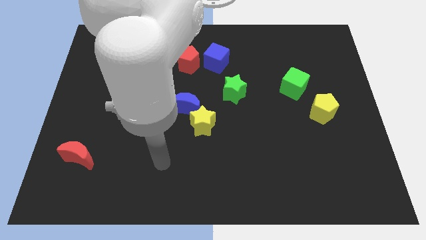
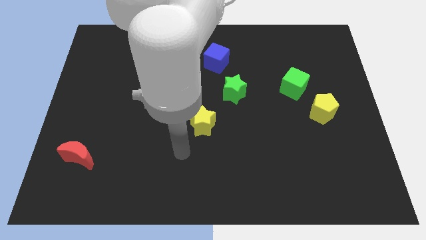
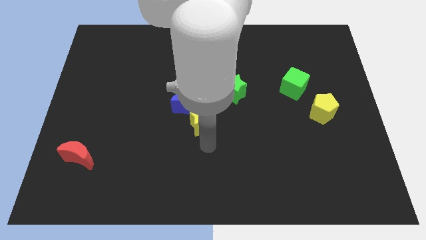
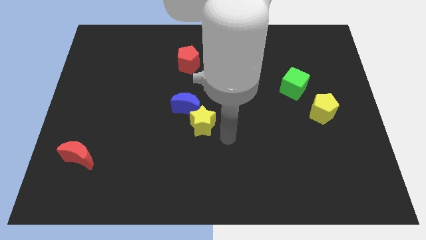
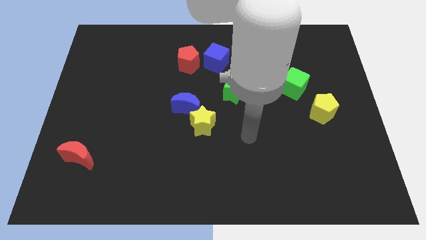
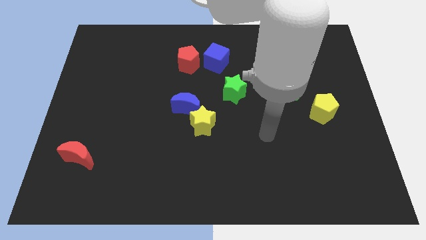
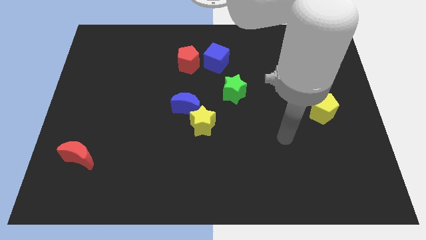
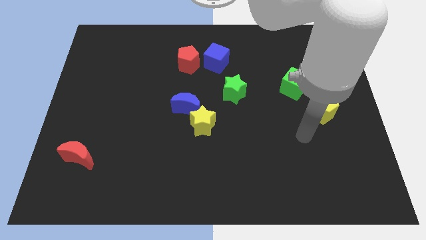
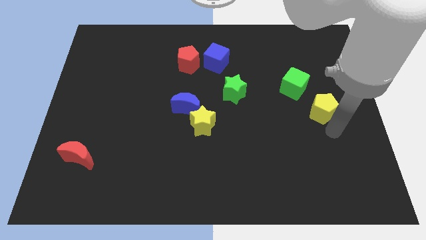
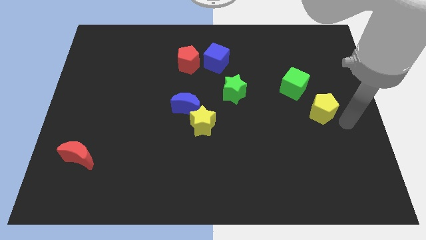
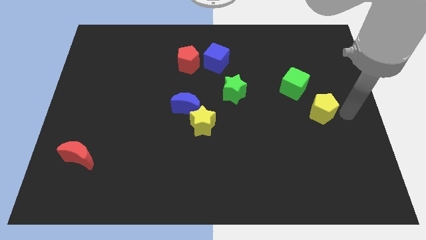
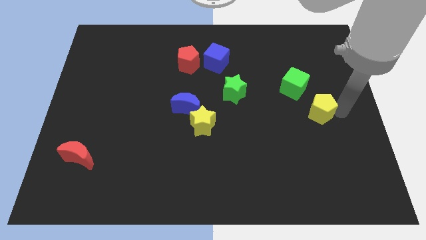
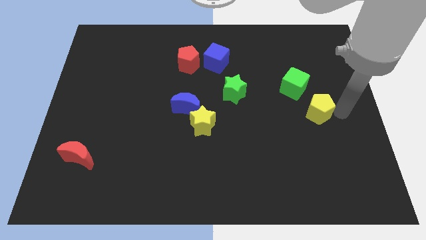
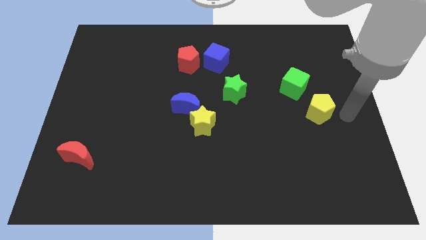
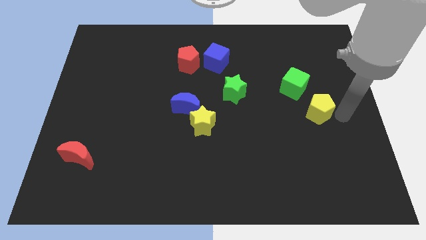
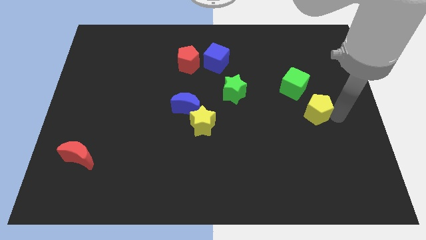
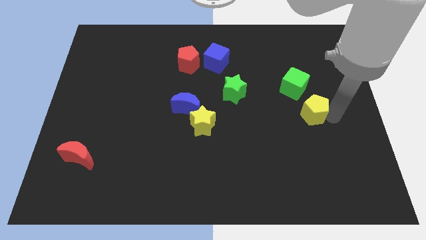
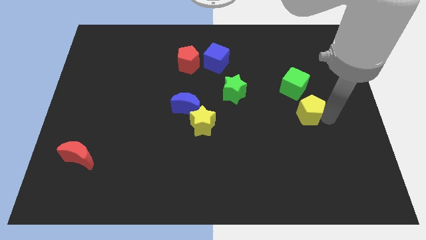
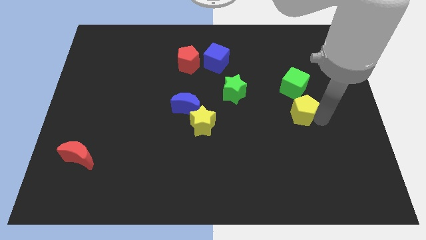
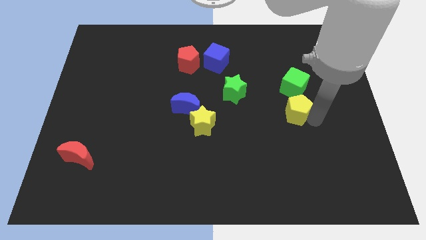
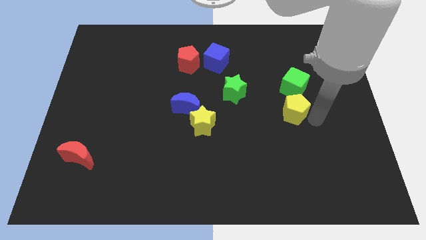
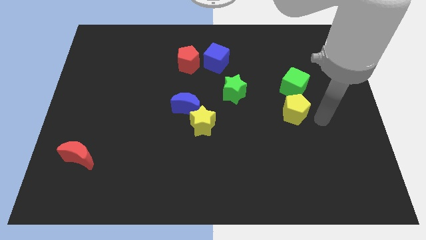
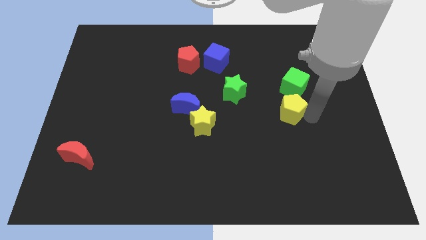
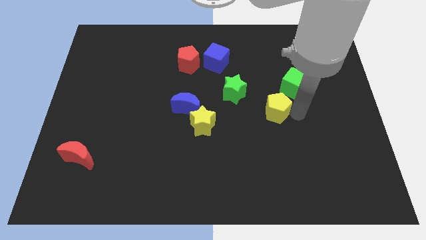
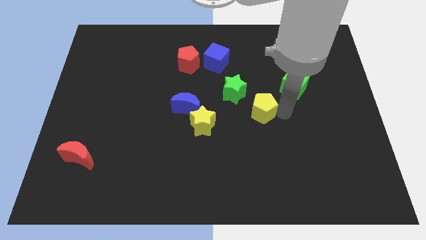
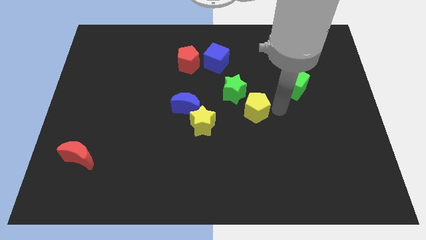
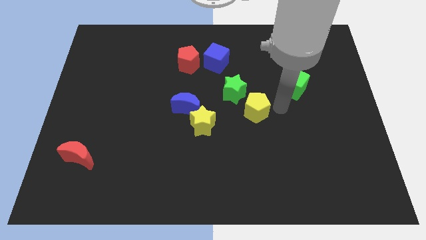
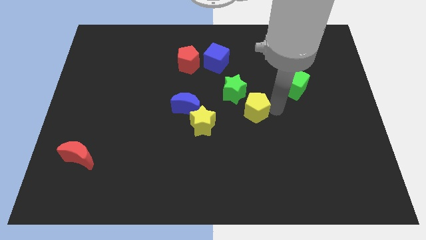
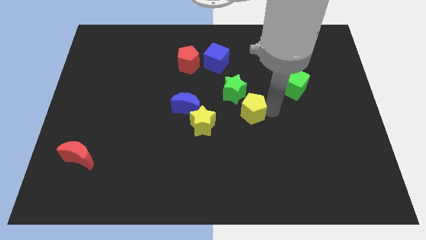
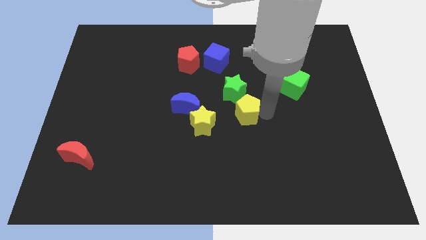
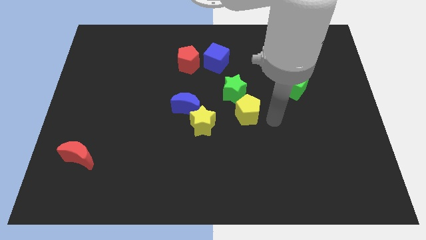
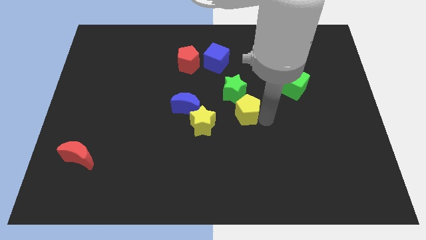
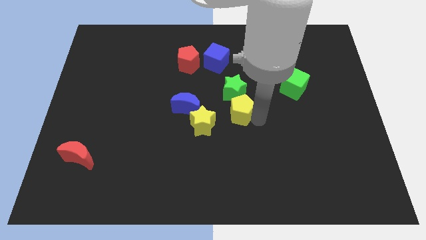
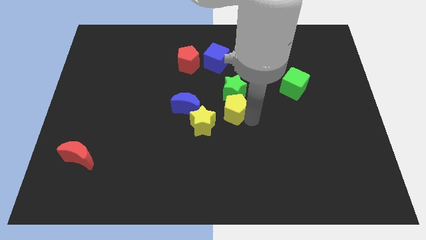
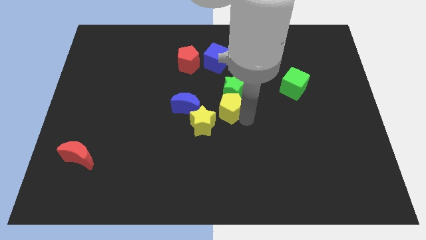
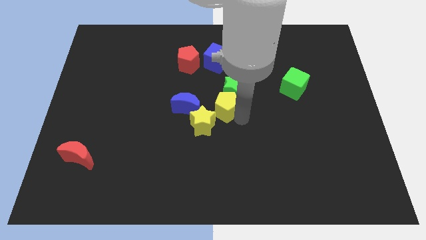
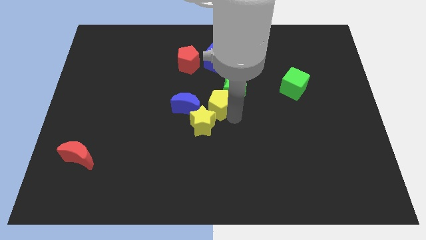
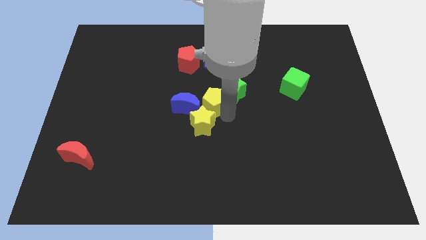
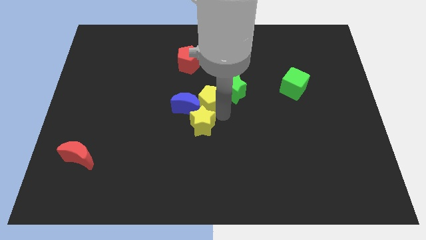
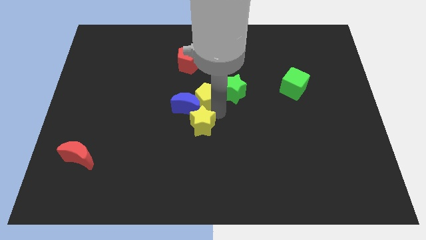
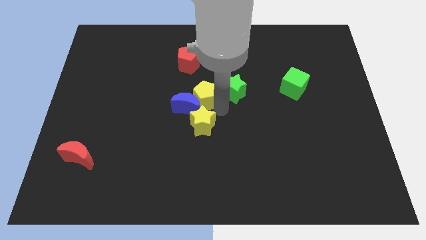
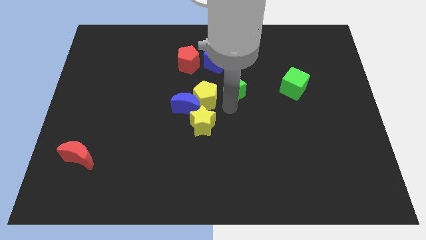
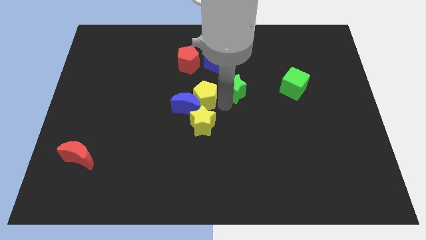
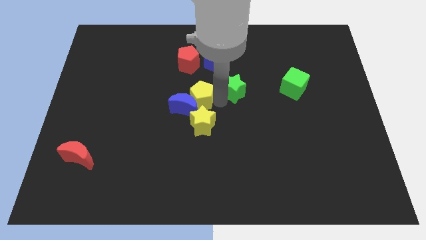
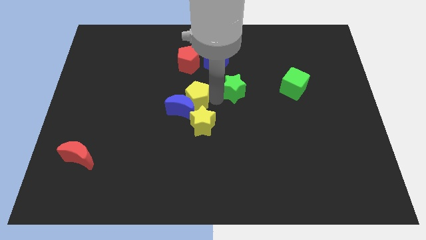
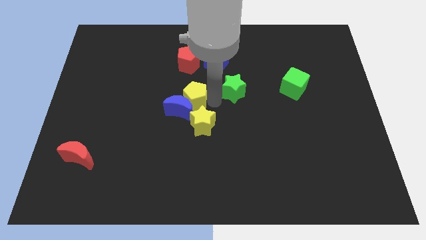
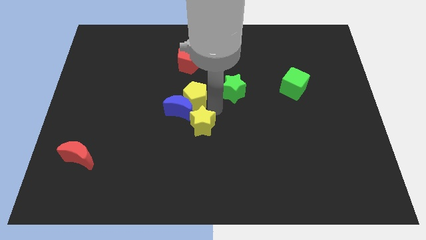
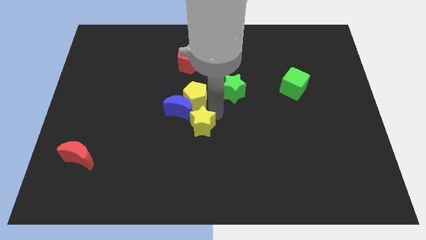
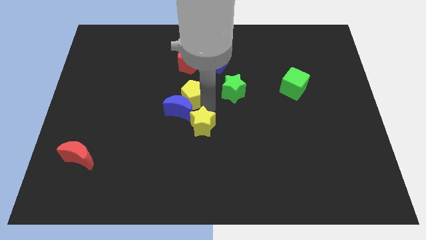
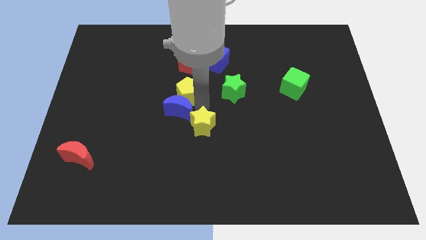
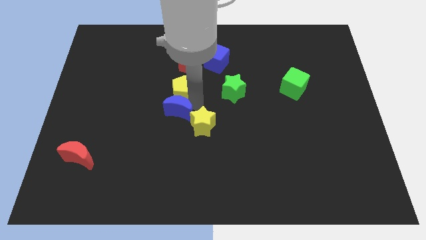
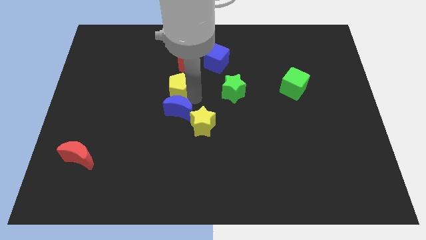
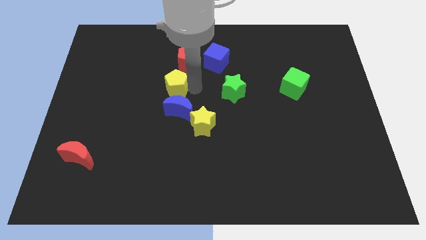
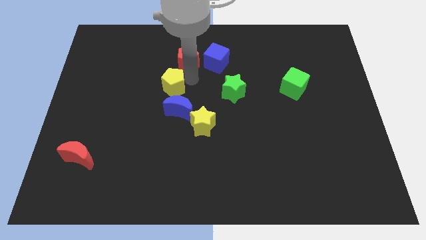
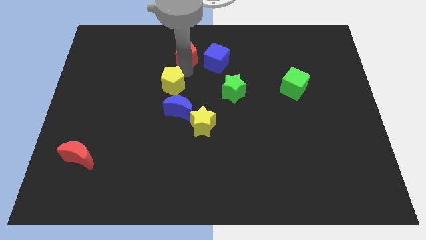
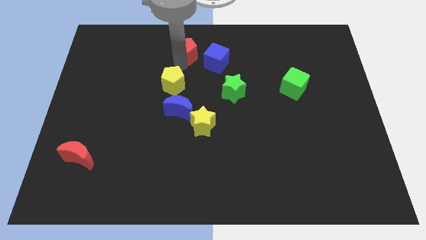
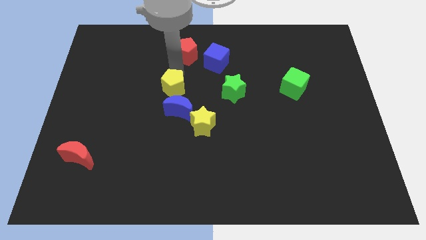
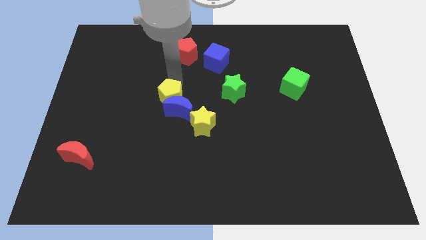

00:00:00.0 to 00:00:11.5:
move the yellow pentagon just left of the blue moon

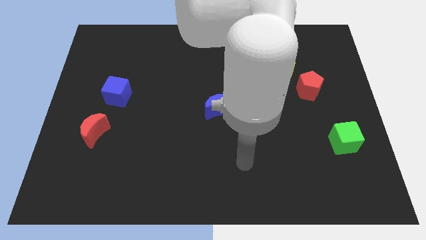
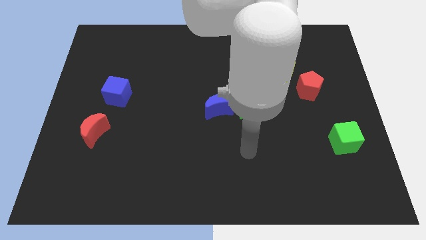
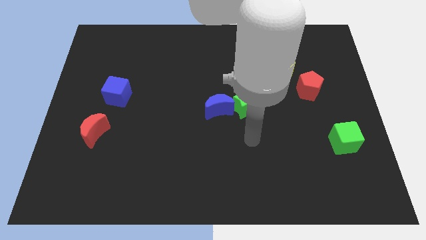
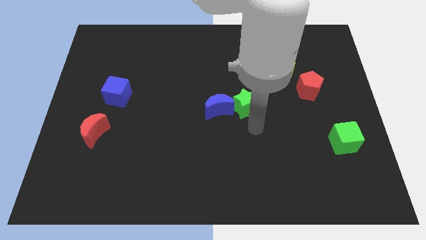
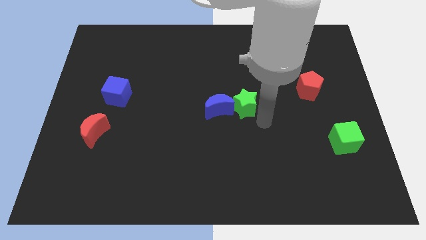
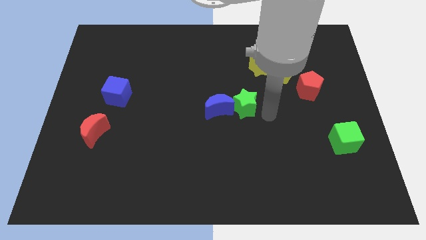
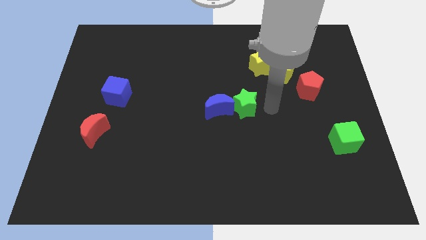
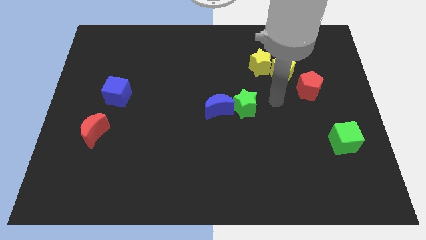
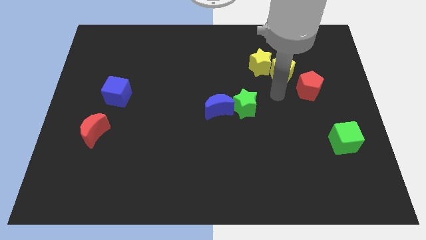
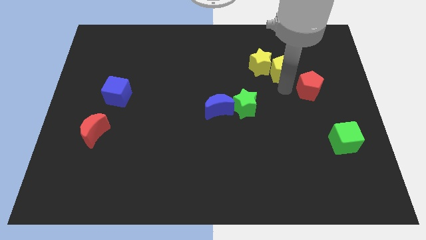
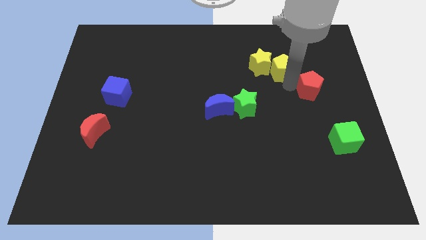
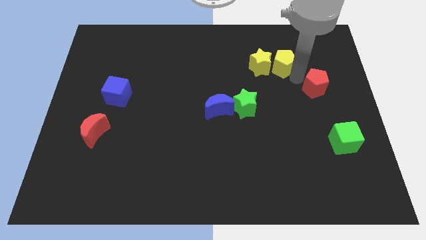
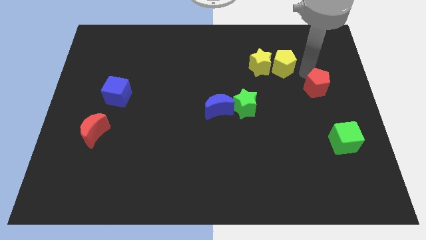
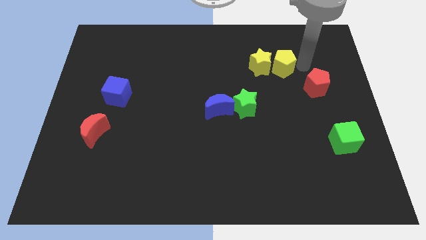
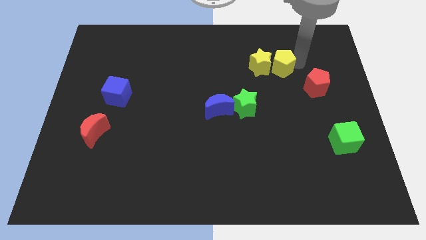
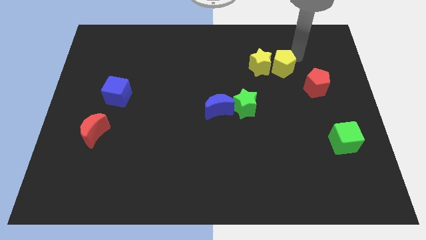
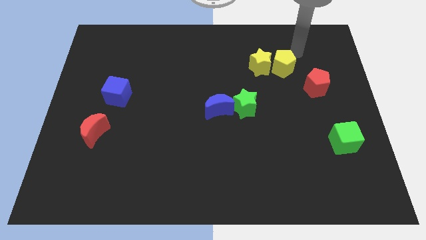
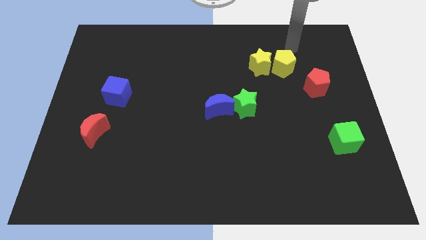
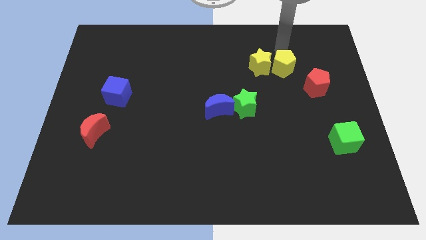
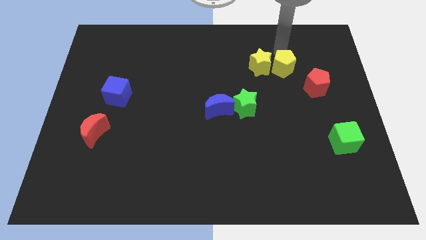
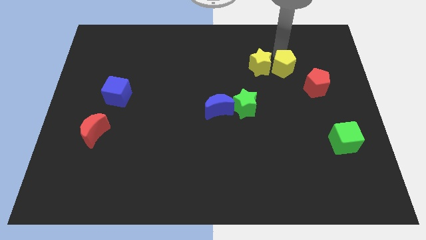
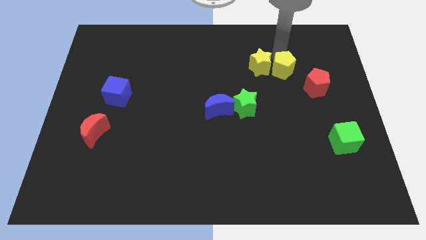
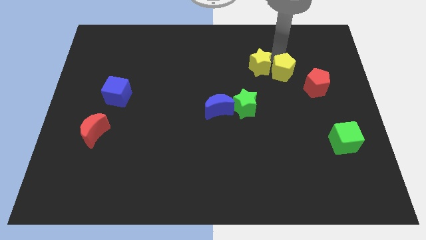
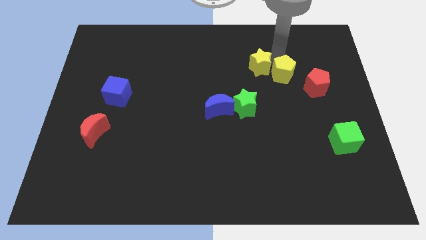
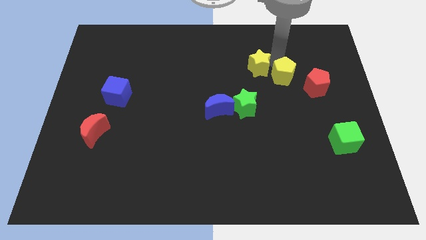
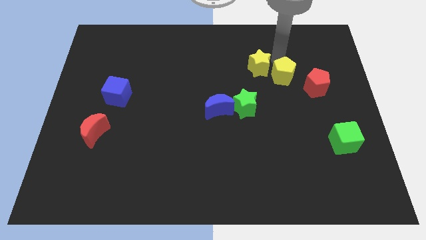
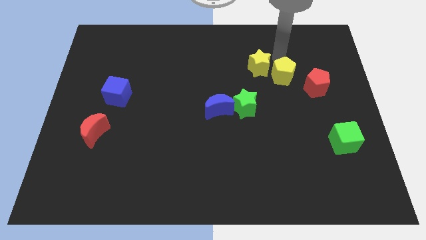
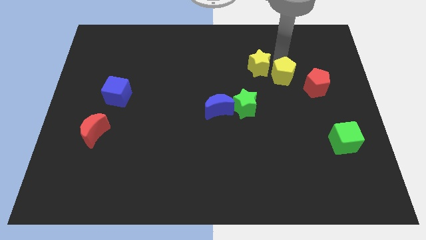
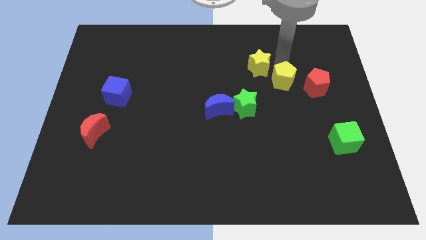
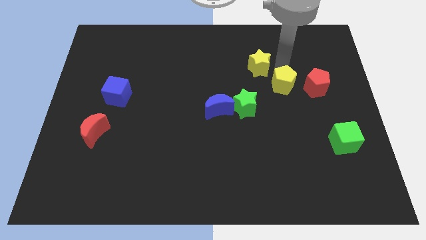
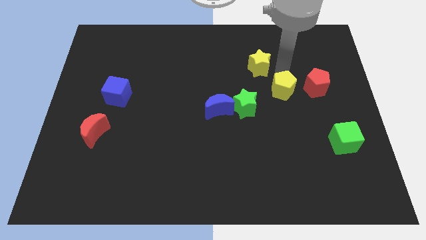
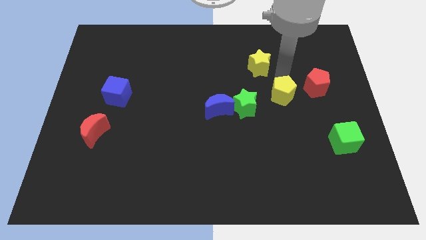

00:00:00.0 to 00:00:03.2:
push the yellow pentagon to the right of the green star
